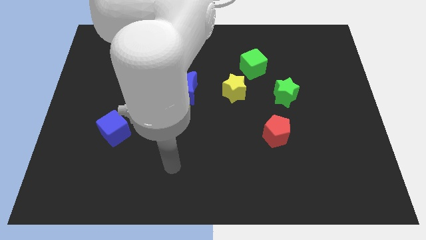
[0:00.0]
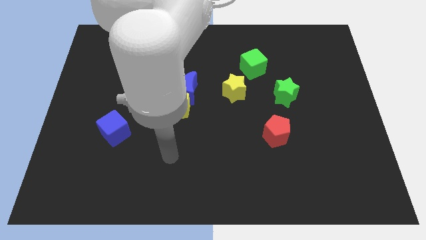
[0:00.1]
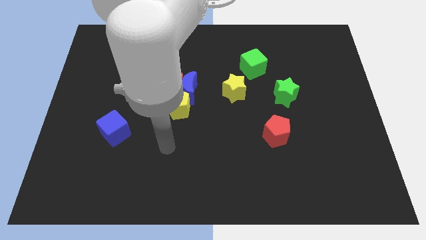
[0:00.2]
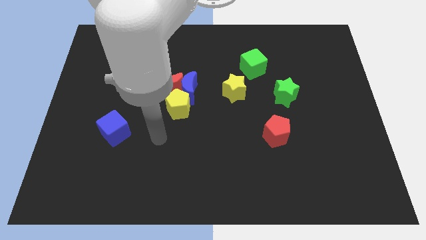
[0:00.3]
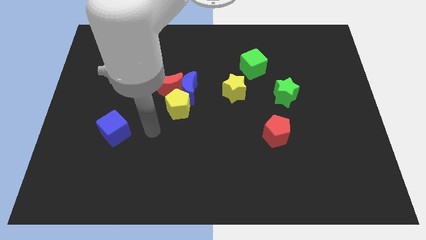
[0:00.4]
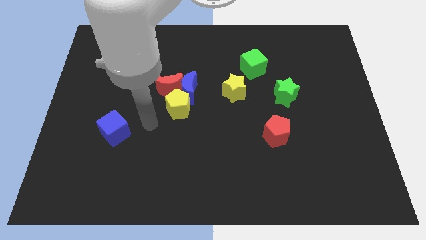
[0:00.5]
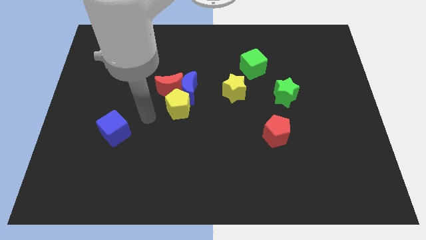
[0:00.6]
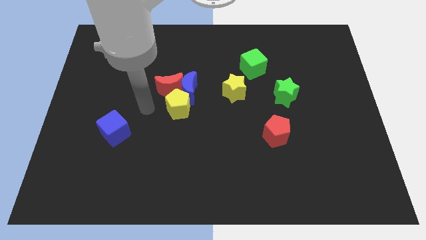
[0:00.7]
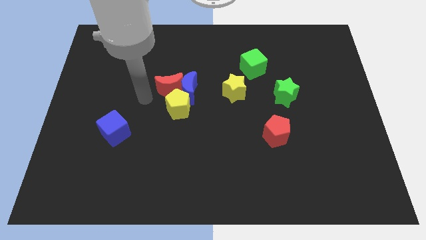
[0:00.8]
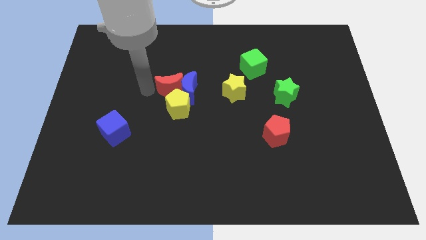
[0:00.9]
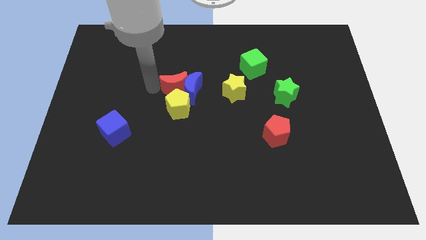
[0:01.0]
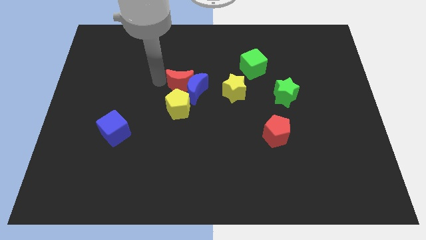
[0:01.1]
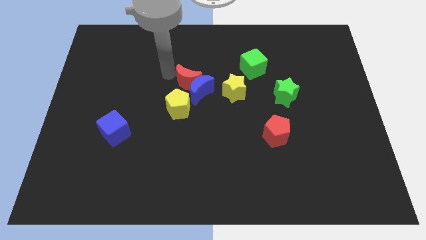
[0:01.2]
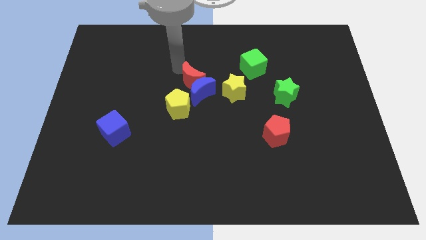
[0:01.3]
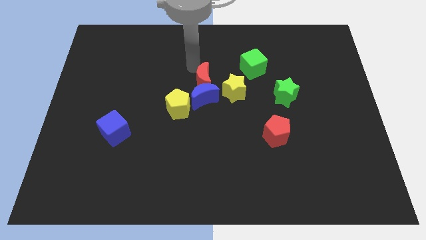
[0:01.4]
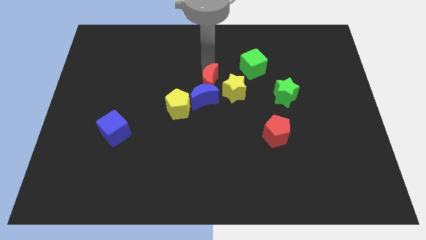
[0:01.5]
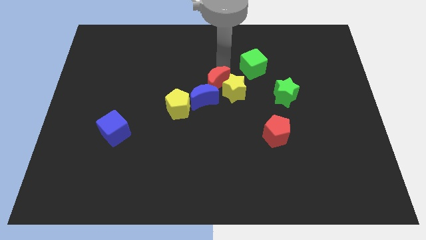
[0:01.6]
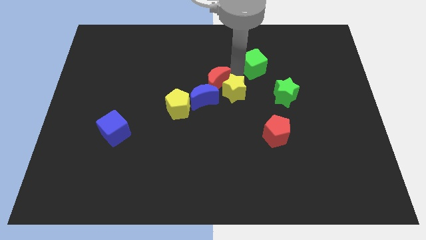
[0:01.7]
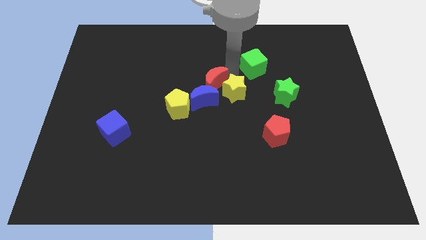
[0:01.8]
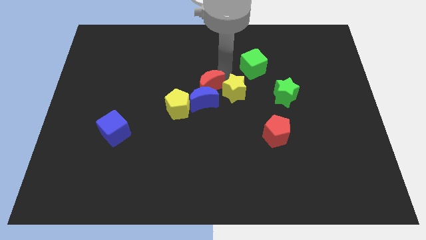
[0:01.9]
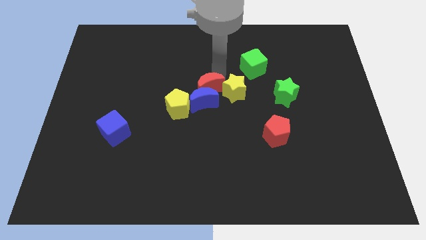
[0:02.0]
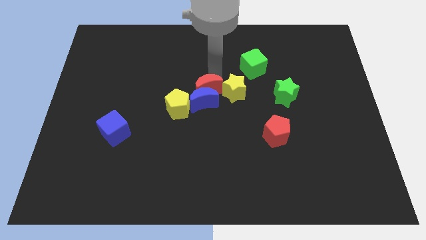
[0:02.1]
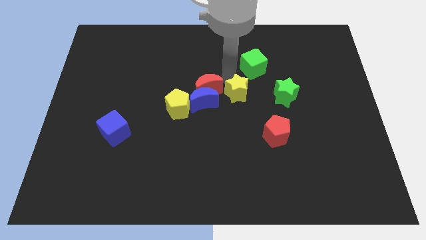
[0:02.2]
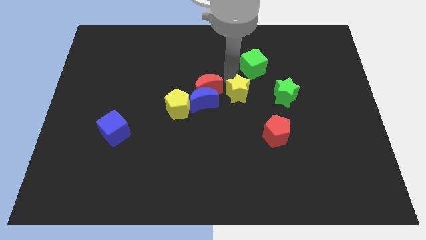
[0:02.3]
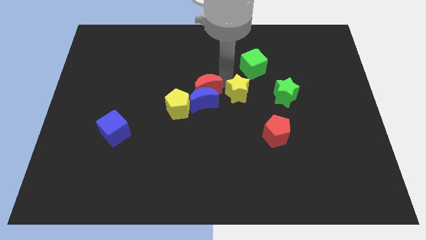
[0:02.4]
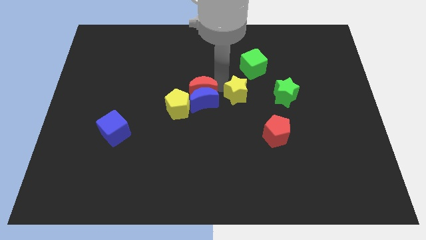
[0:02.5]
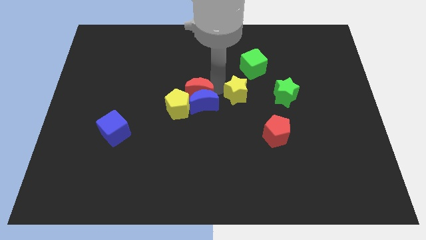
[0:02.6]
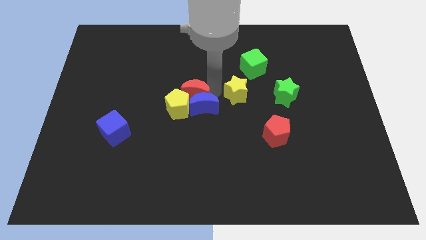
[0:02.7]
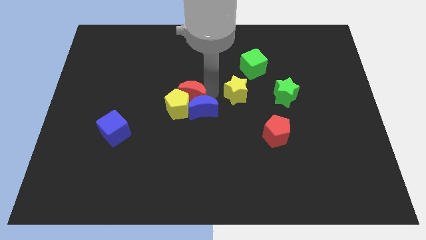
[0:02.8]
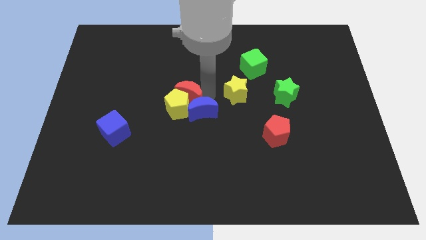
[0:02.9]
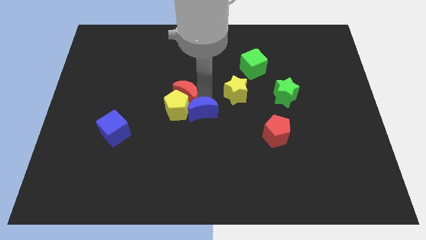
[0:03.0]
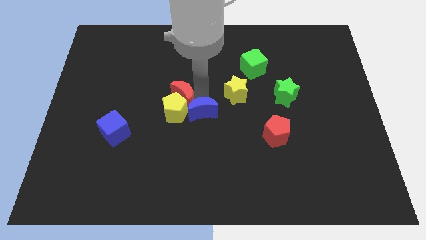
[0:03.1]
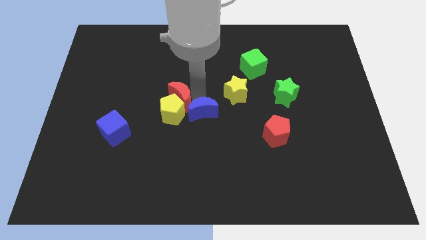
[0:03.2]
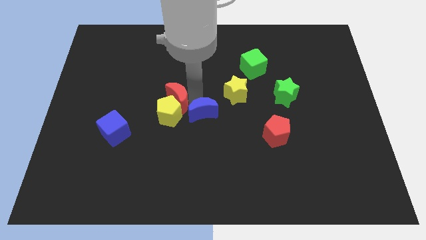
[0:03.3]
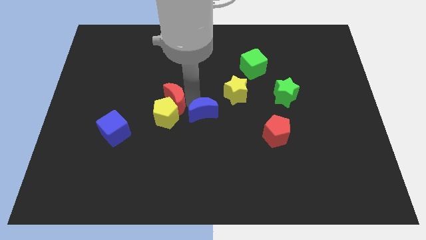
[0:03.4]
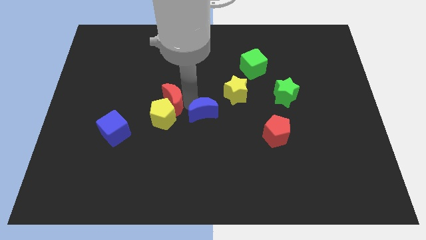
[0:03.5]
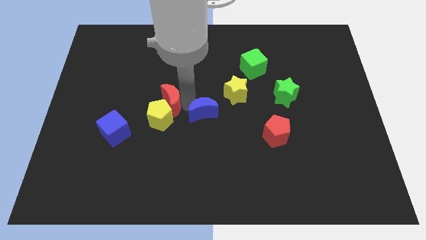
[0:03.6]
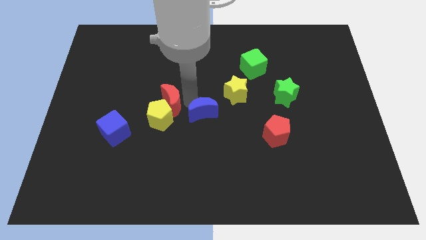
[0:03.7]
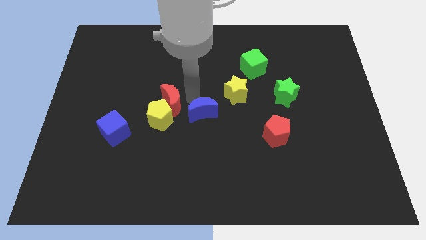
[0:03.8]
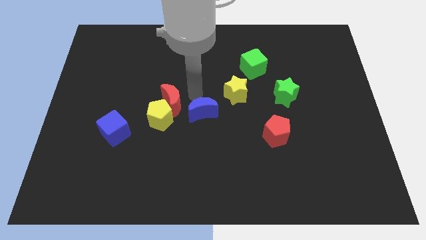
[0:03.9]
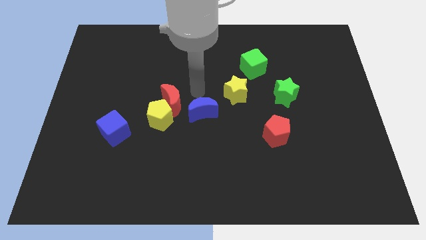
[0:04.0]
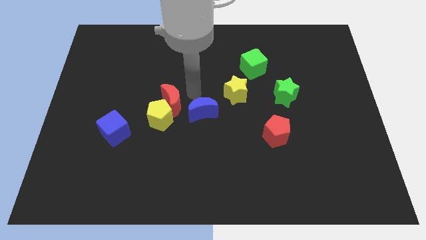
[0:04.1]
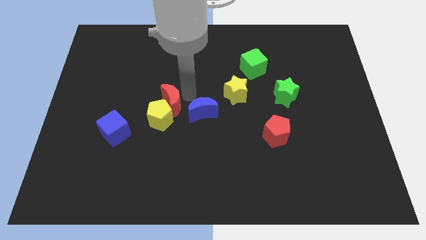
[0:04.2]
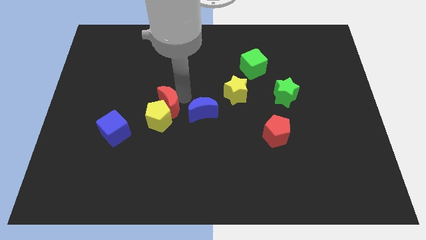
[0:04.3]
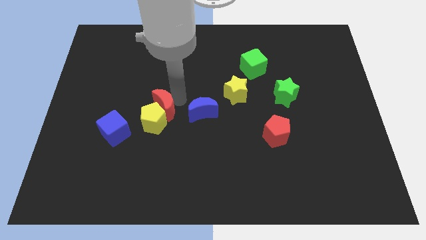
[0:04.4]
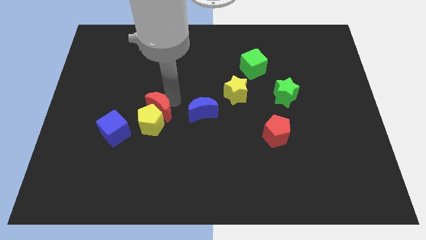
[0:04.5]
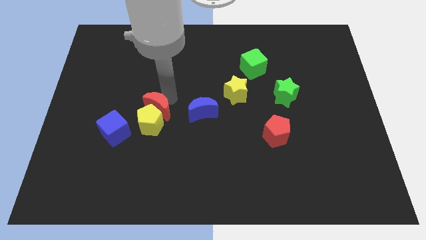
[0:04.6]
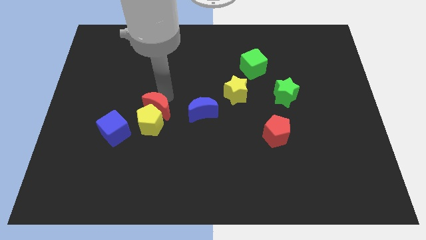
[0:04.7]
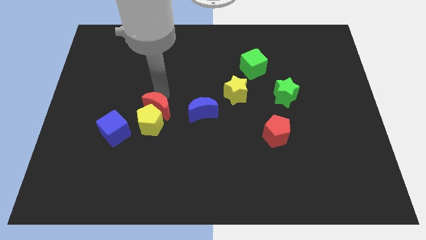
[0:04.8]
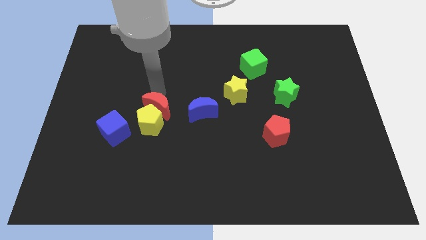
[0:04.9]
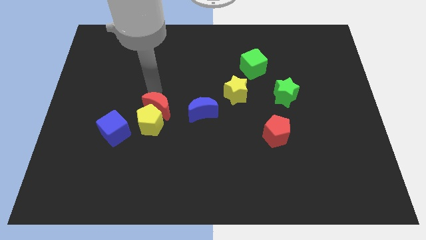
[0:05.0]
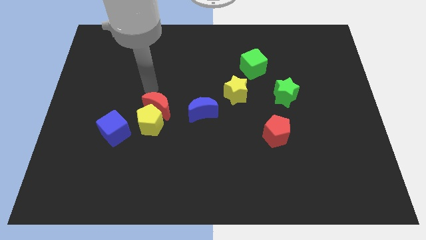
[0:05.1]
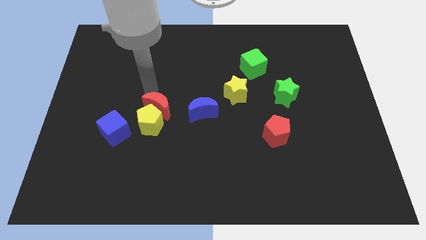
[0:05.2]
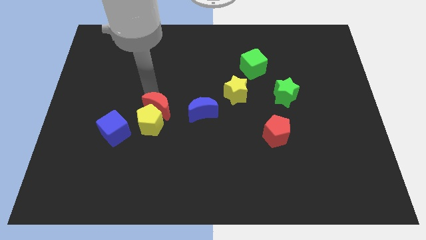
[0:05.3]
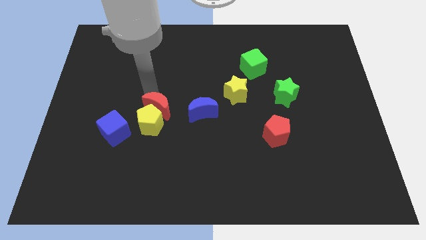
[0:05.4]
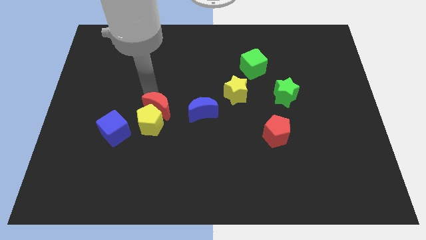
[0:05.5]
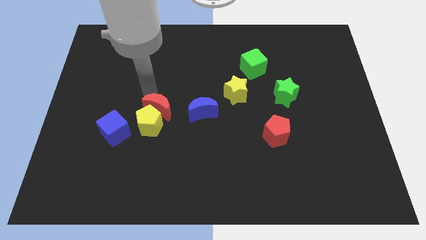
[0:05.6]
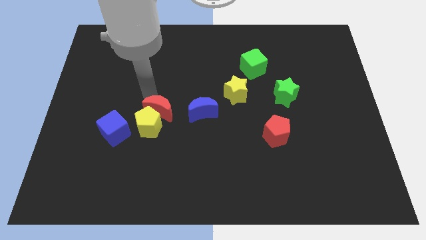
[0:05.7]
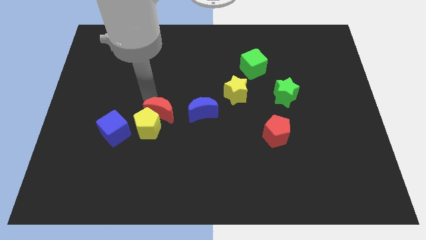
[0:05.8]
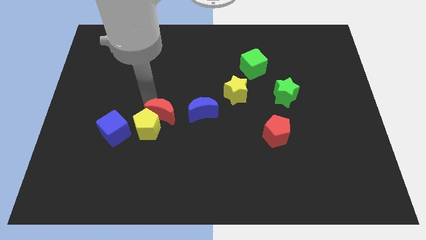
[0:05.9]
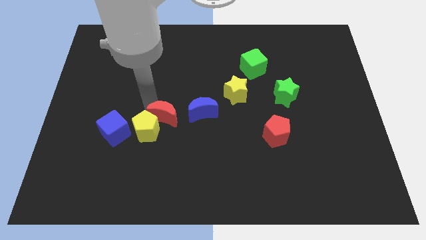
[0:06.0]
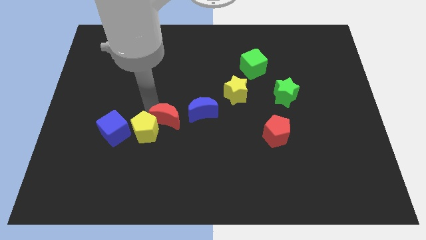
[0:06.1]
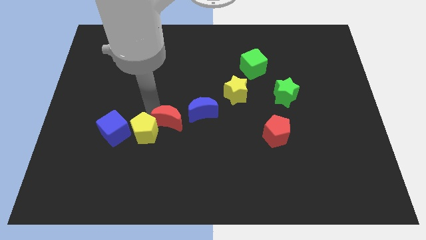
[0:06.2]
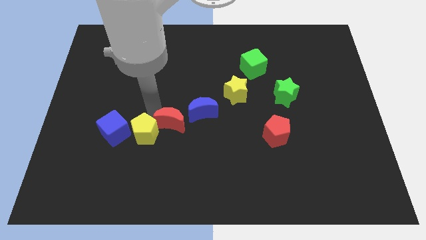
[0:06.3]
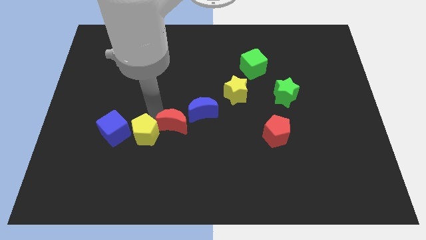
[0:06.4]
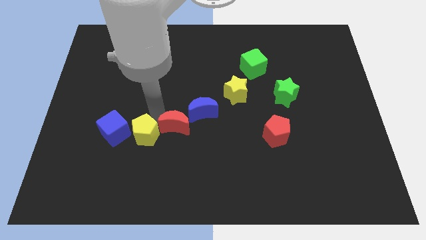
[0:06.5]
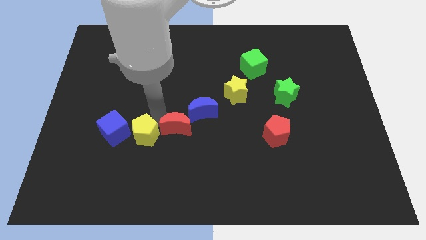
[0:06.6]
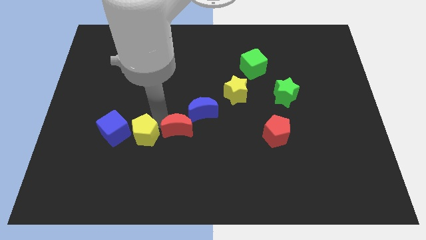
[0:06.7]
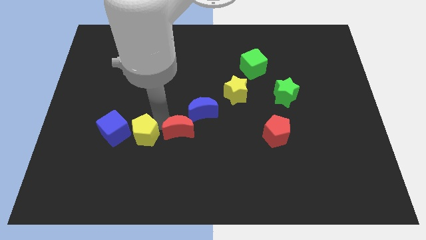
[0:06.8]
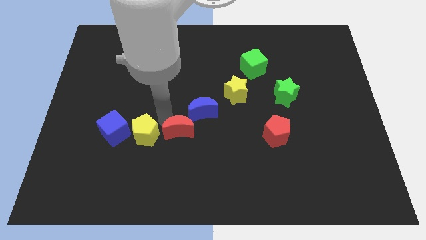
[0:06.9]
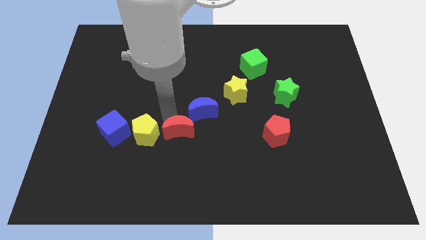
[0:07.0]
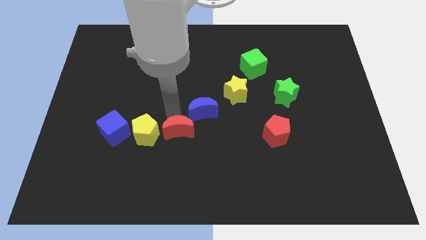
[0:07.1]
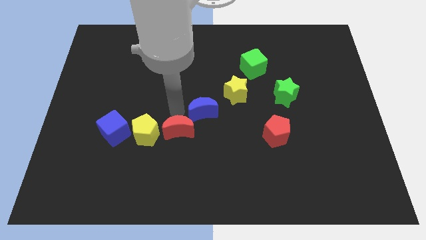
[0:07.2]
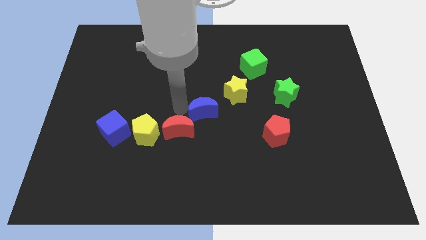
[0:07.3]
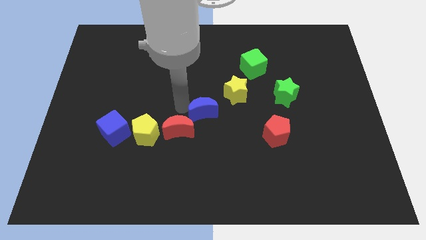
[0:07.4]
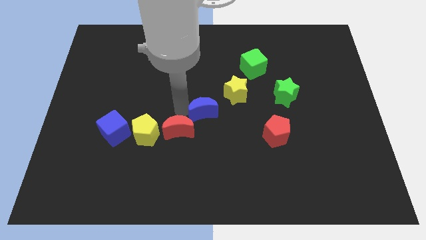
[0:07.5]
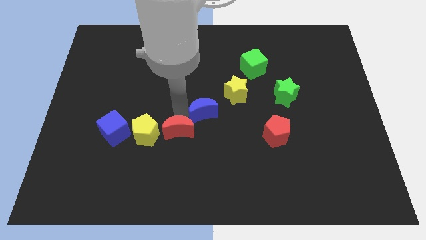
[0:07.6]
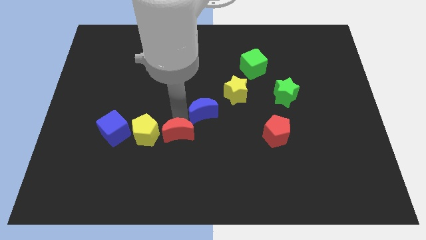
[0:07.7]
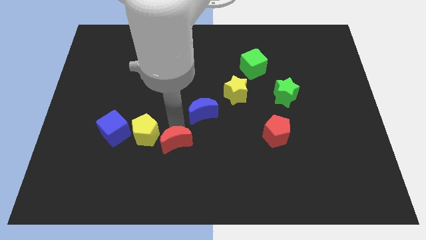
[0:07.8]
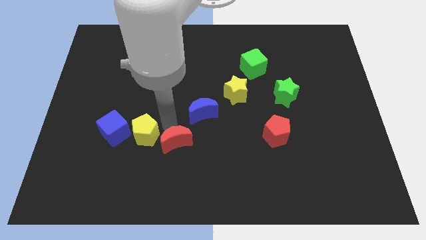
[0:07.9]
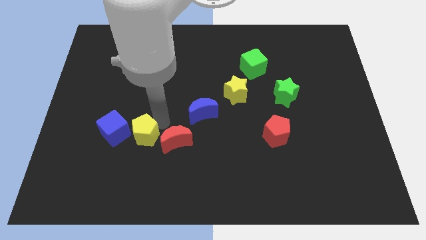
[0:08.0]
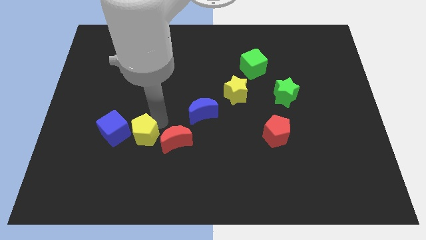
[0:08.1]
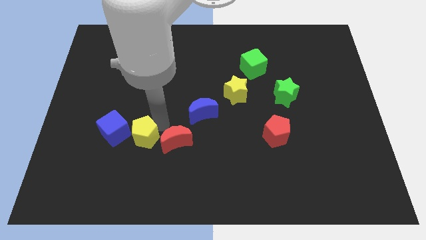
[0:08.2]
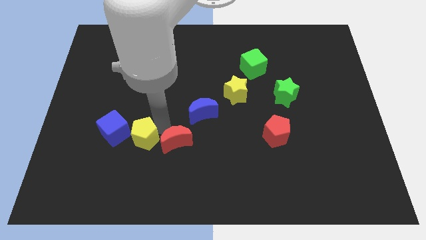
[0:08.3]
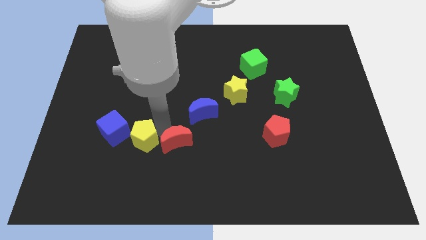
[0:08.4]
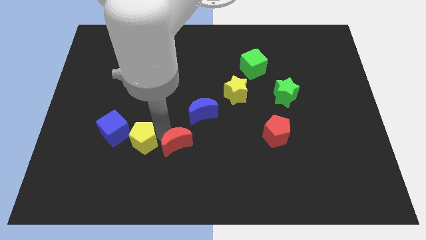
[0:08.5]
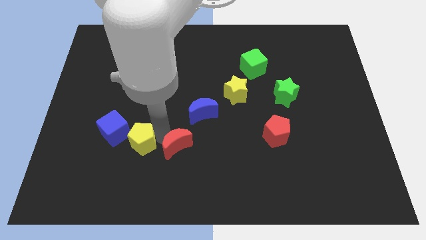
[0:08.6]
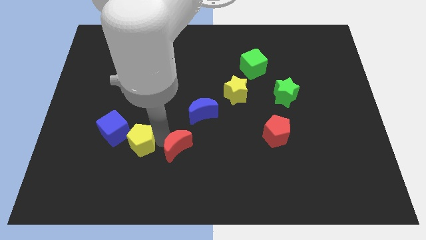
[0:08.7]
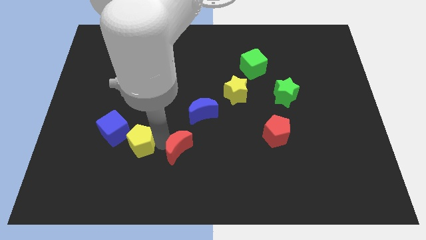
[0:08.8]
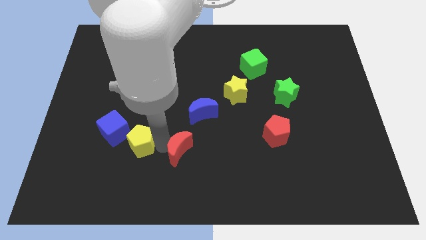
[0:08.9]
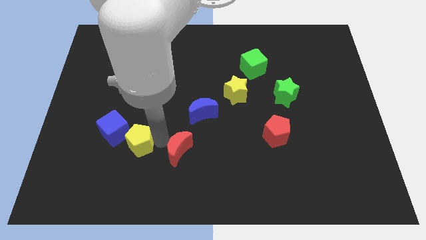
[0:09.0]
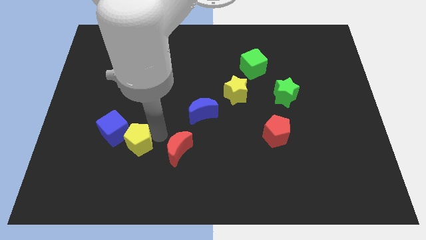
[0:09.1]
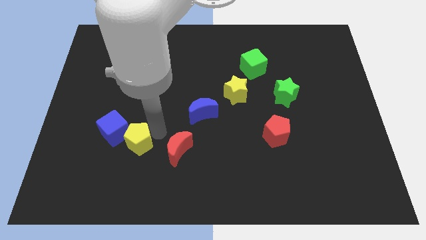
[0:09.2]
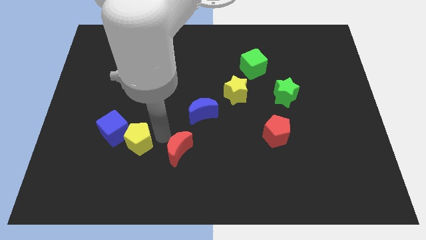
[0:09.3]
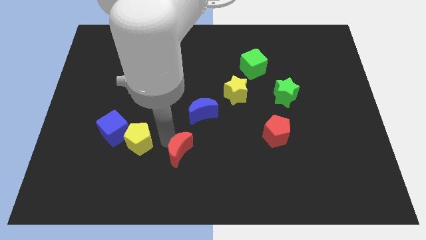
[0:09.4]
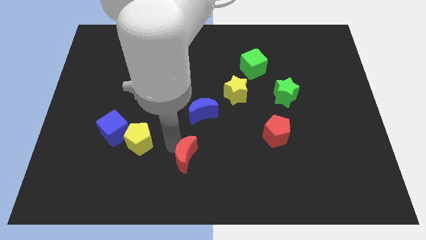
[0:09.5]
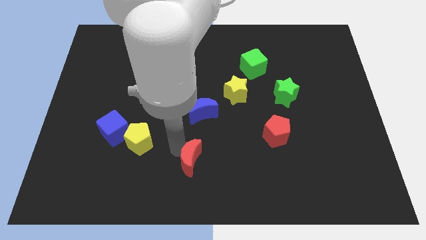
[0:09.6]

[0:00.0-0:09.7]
put the red moon to the bottom
